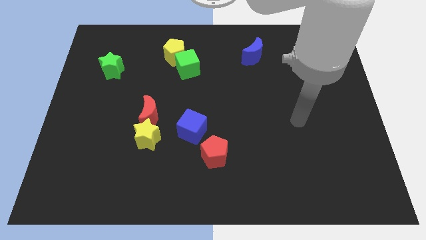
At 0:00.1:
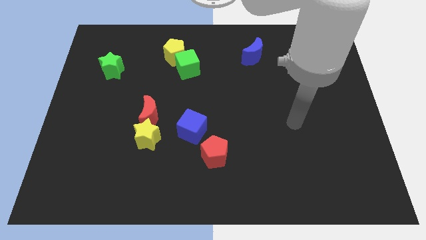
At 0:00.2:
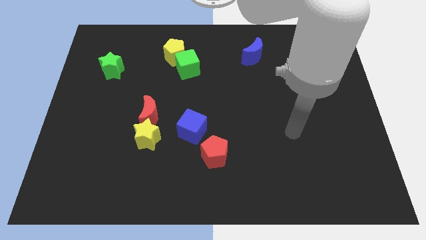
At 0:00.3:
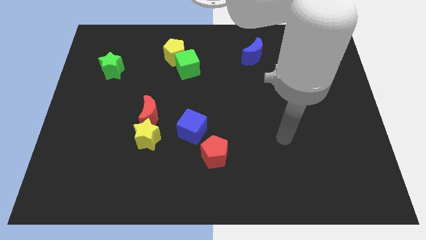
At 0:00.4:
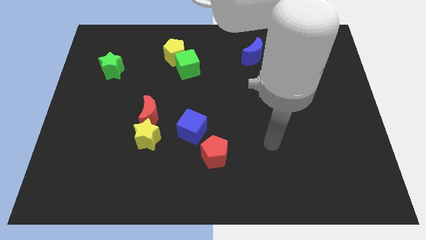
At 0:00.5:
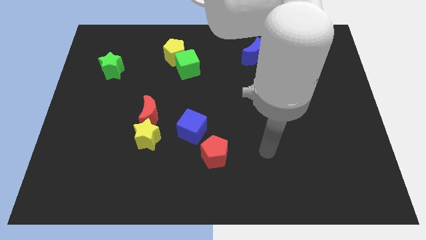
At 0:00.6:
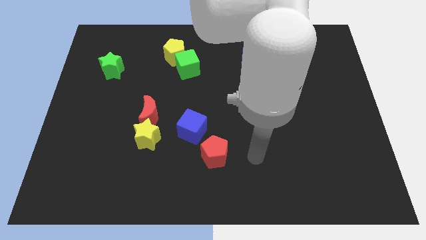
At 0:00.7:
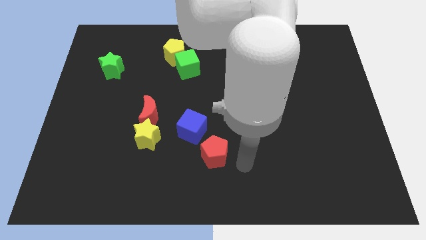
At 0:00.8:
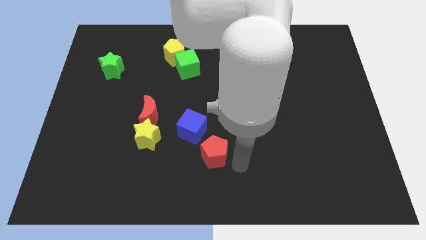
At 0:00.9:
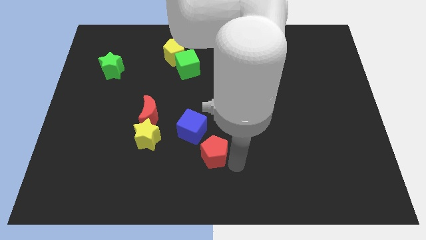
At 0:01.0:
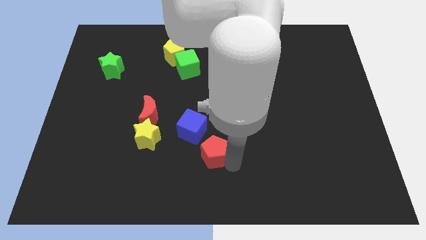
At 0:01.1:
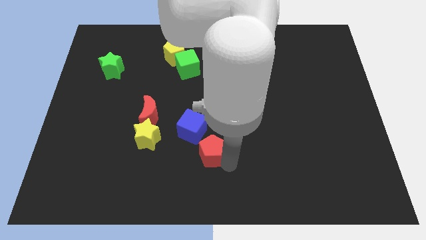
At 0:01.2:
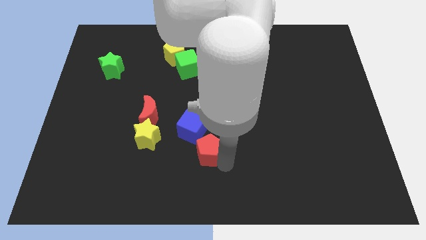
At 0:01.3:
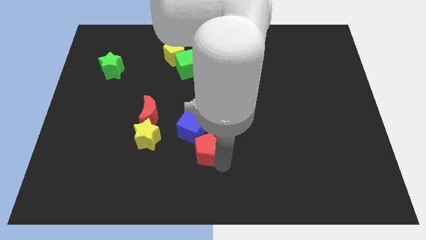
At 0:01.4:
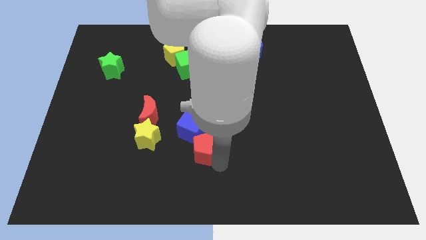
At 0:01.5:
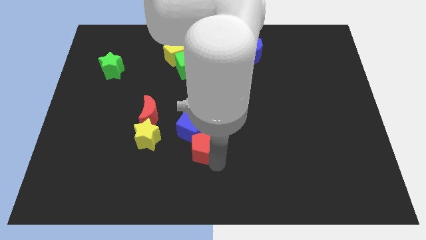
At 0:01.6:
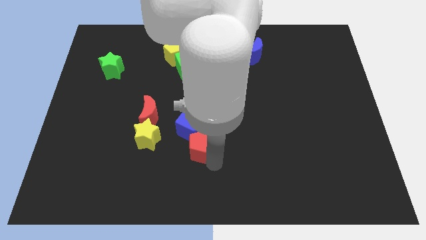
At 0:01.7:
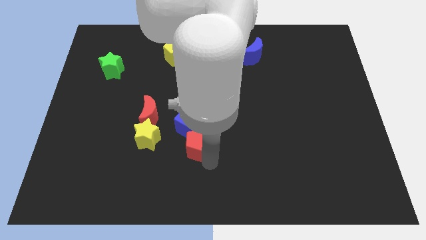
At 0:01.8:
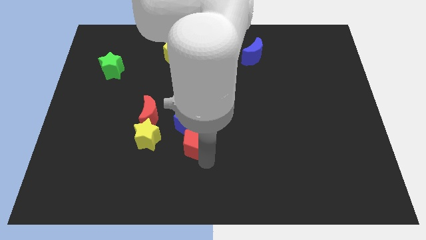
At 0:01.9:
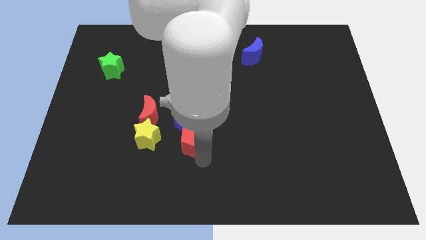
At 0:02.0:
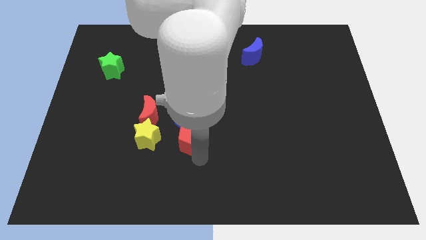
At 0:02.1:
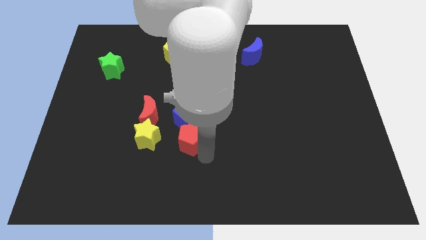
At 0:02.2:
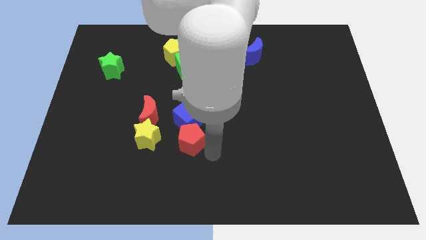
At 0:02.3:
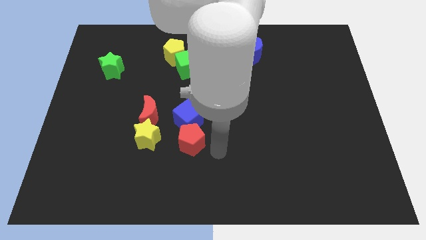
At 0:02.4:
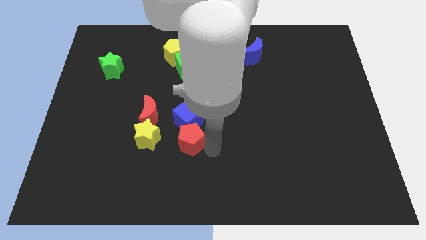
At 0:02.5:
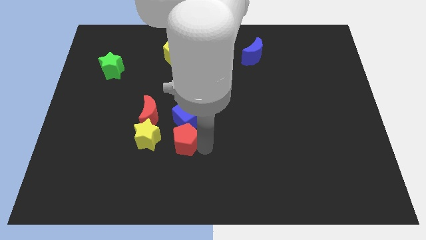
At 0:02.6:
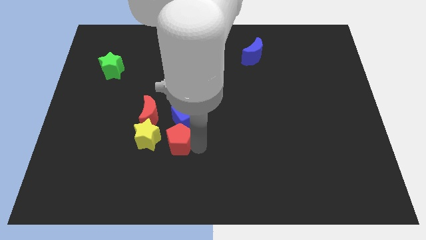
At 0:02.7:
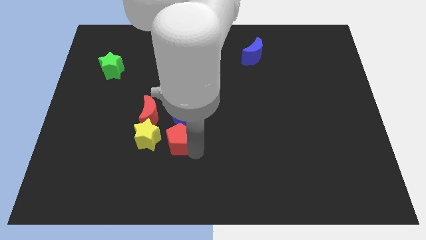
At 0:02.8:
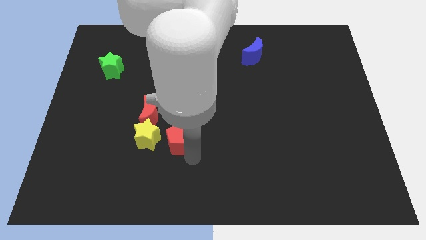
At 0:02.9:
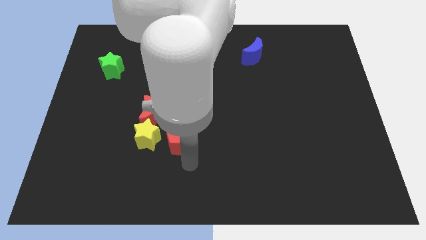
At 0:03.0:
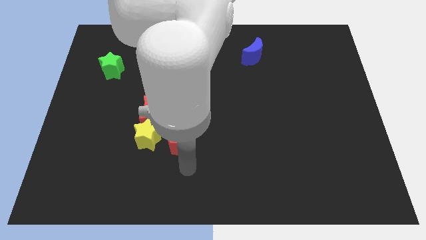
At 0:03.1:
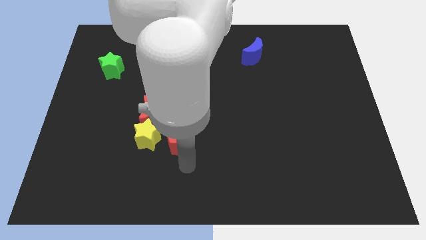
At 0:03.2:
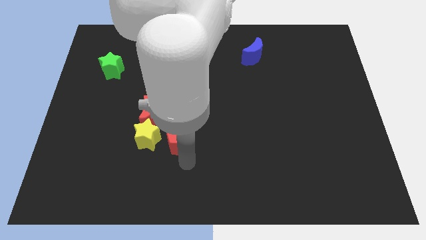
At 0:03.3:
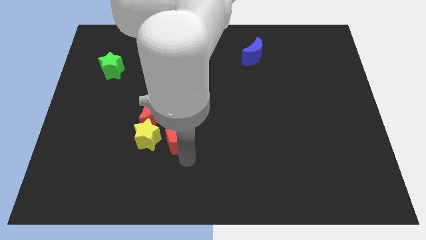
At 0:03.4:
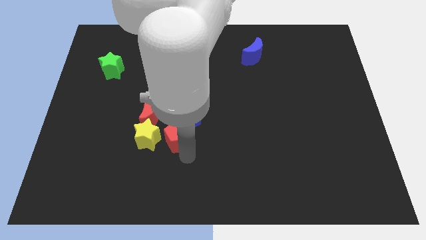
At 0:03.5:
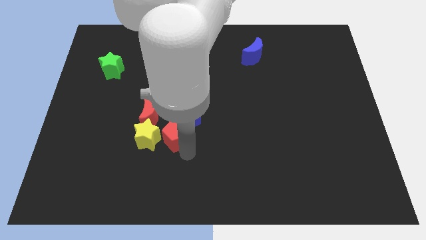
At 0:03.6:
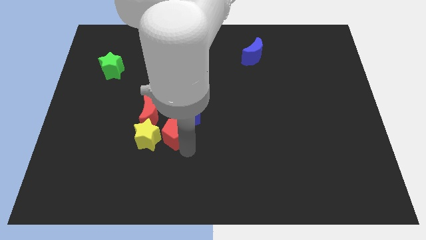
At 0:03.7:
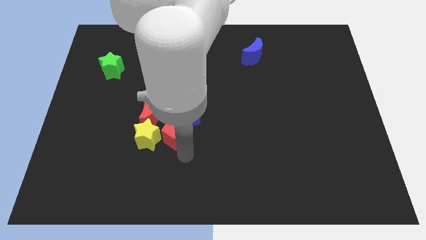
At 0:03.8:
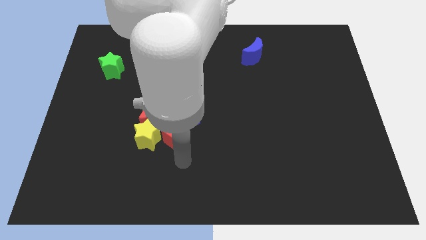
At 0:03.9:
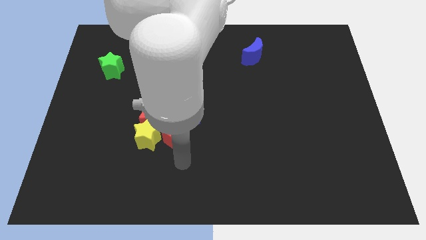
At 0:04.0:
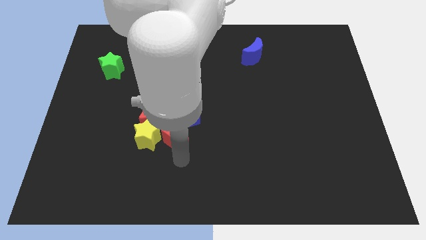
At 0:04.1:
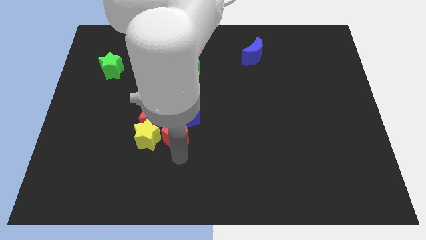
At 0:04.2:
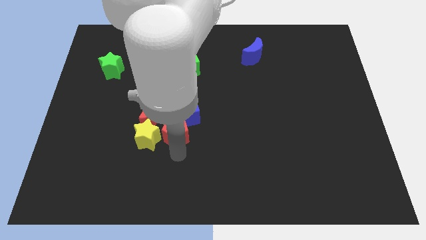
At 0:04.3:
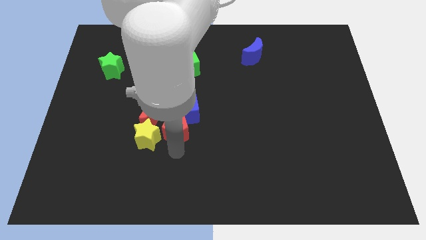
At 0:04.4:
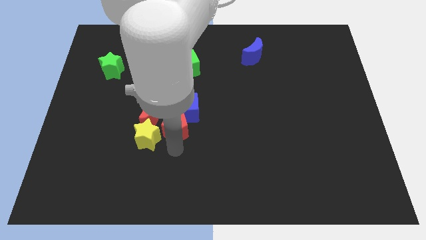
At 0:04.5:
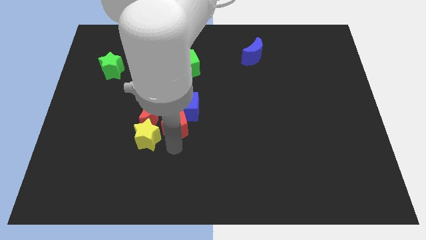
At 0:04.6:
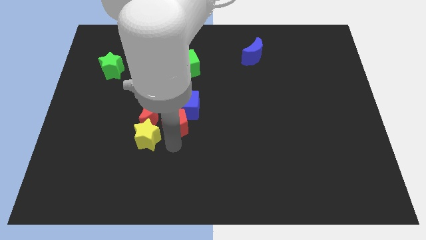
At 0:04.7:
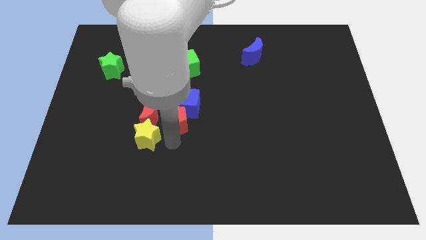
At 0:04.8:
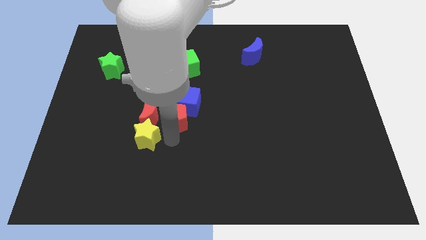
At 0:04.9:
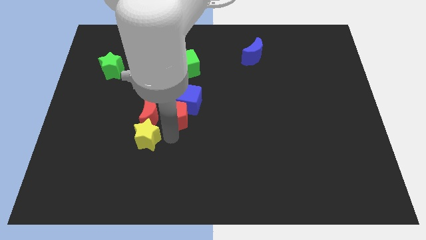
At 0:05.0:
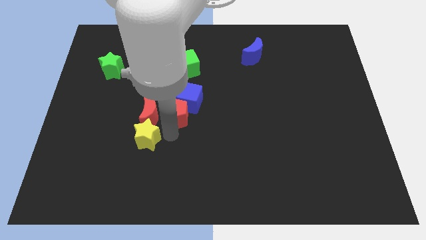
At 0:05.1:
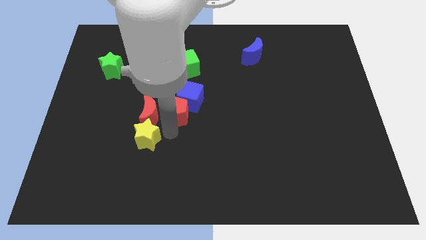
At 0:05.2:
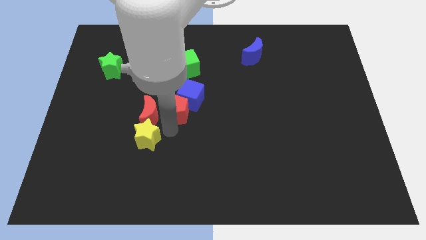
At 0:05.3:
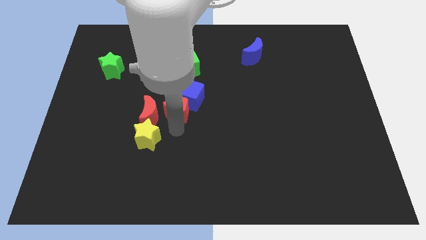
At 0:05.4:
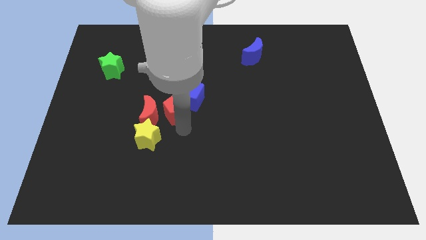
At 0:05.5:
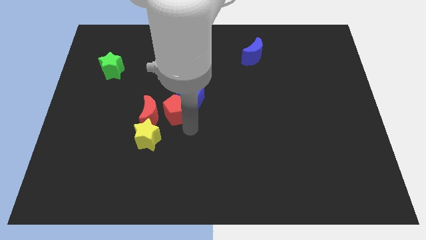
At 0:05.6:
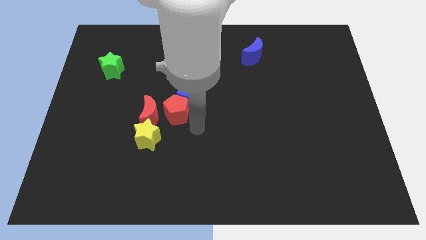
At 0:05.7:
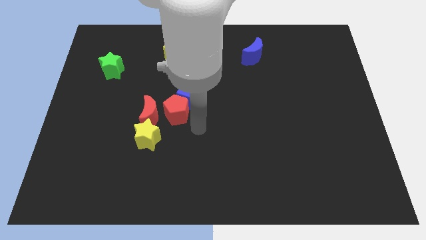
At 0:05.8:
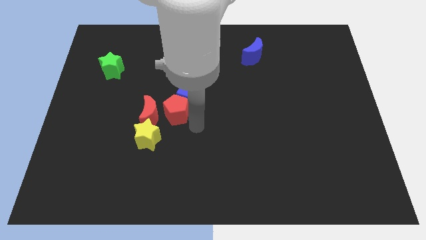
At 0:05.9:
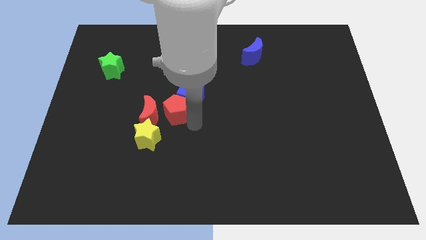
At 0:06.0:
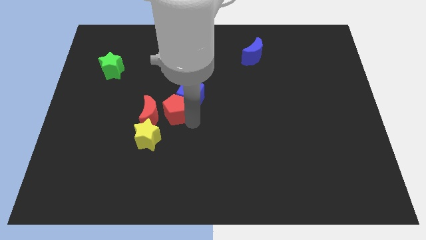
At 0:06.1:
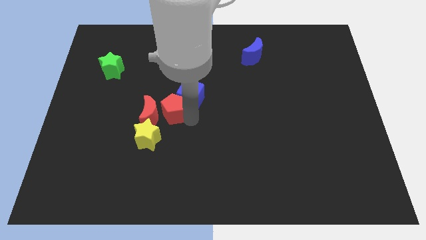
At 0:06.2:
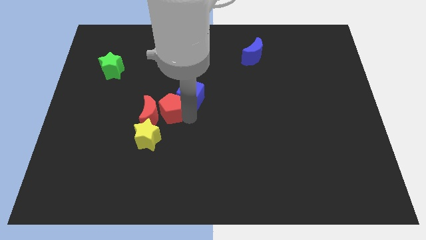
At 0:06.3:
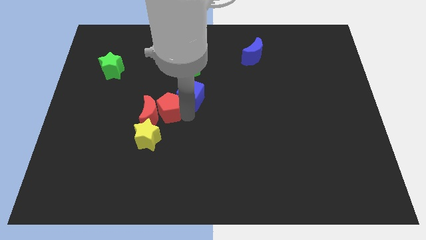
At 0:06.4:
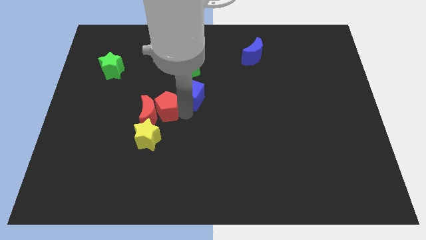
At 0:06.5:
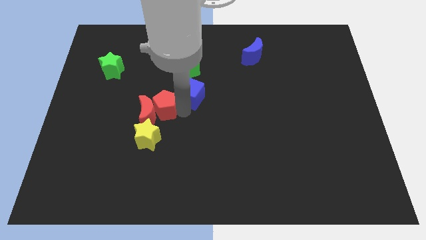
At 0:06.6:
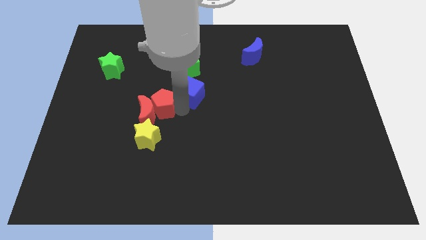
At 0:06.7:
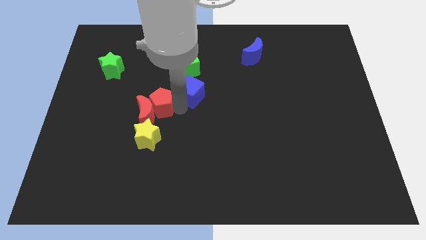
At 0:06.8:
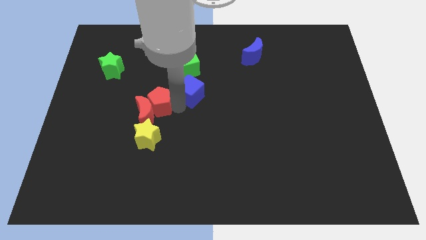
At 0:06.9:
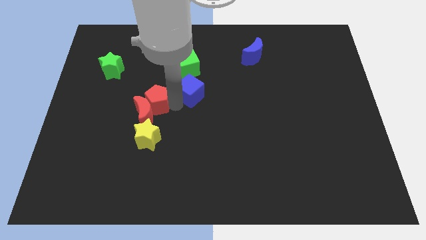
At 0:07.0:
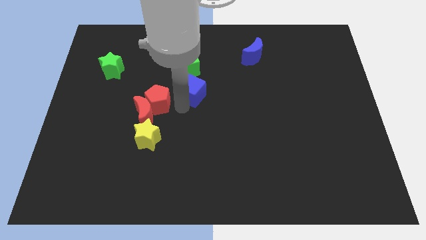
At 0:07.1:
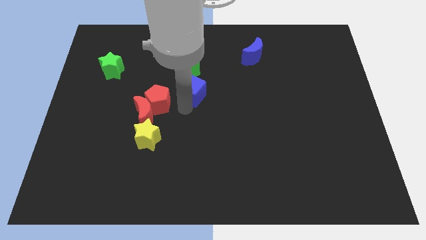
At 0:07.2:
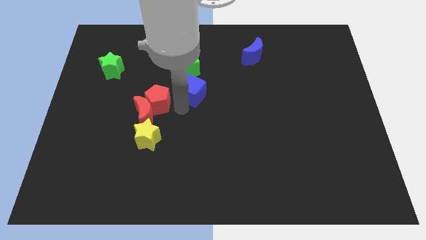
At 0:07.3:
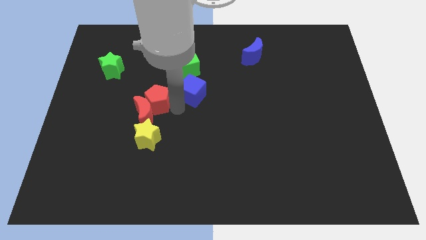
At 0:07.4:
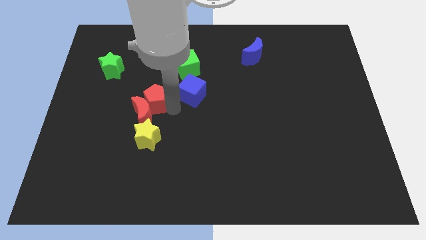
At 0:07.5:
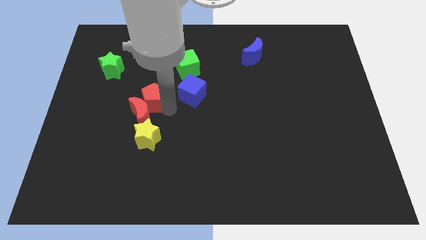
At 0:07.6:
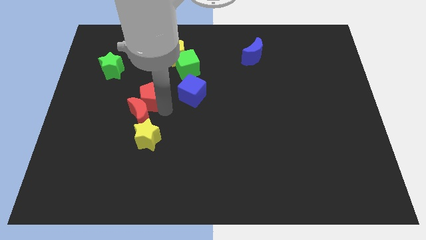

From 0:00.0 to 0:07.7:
slide the red pentagon to the top left of the red moon
